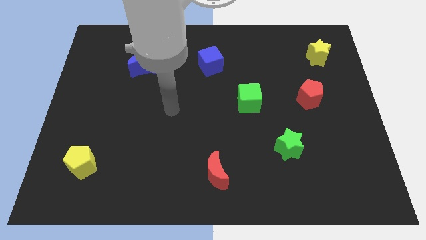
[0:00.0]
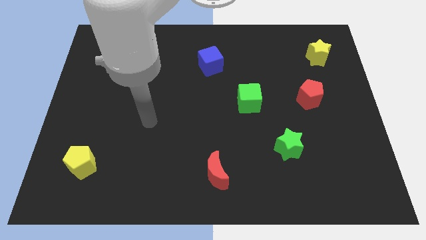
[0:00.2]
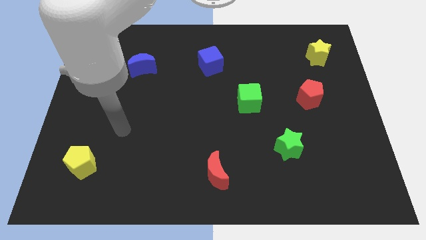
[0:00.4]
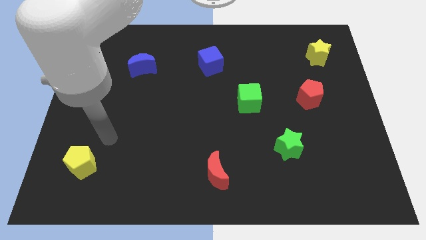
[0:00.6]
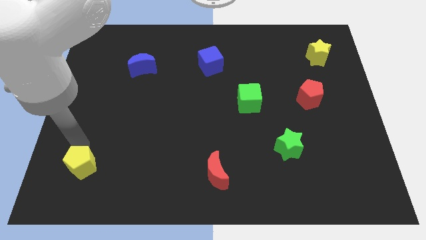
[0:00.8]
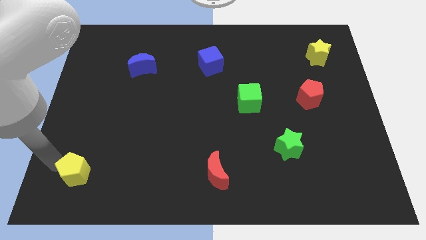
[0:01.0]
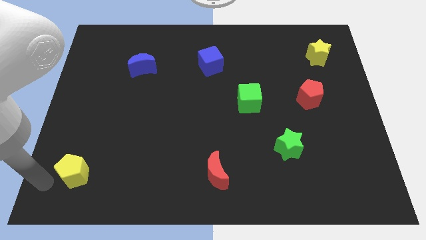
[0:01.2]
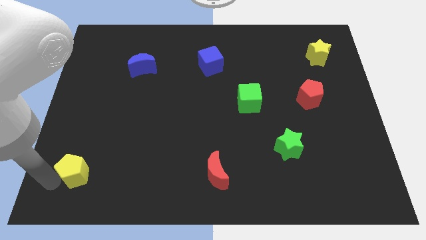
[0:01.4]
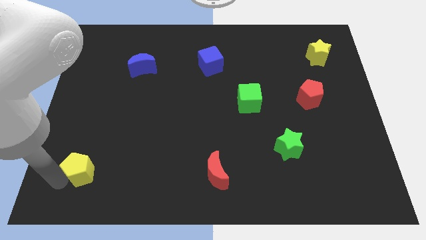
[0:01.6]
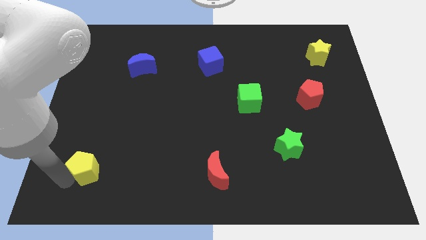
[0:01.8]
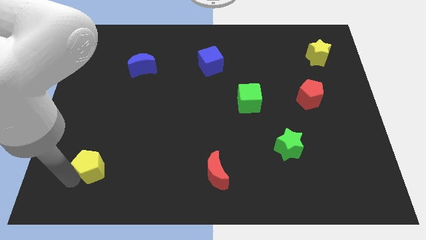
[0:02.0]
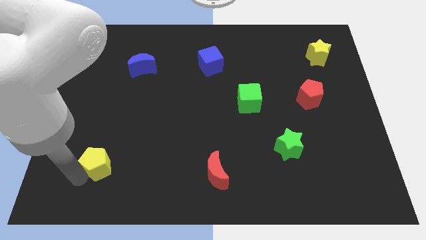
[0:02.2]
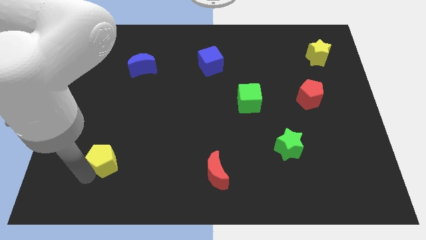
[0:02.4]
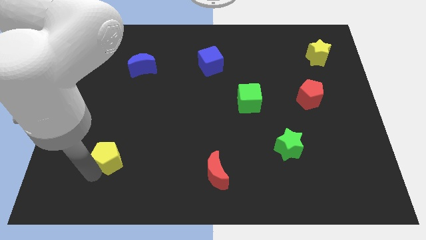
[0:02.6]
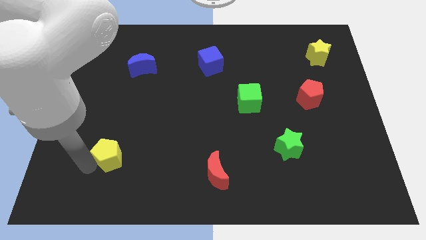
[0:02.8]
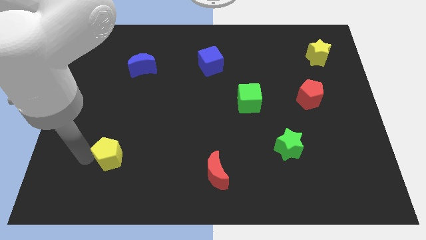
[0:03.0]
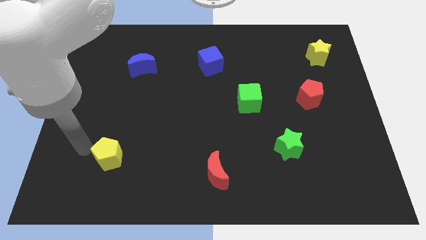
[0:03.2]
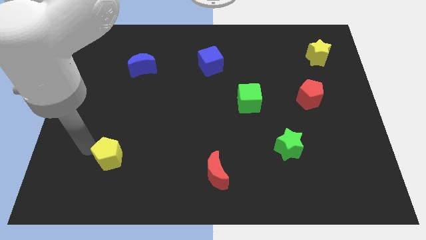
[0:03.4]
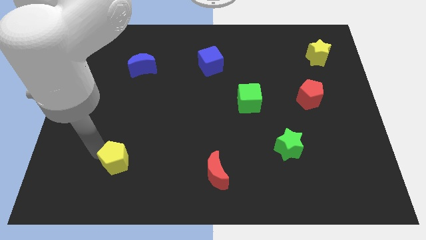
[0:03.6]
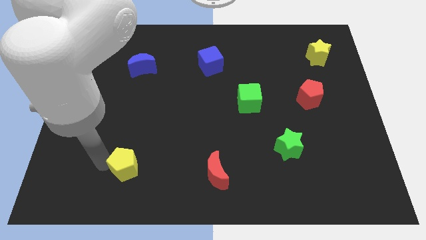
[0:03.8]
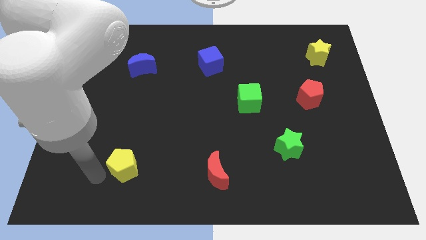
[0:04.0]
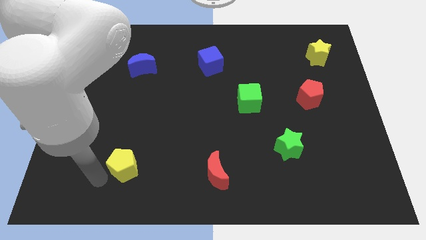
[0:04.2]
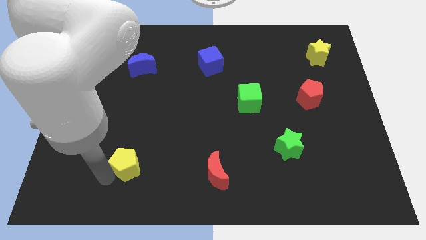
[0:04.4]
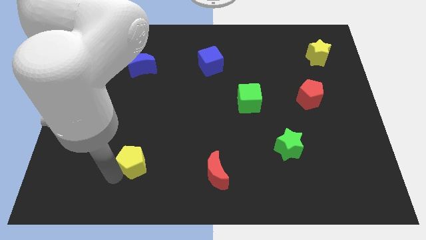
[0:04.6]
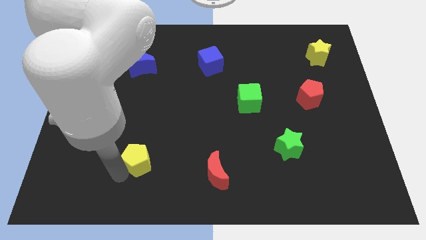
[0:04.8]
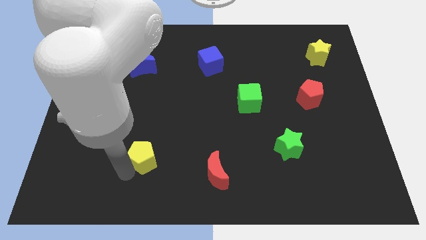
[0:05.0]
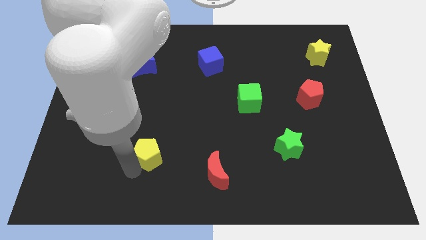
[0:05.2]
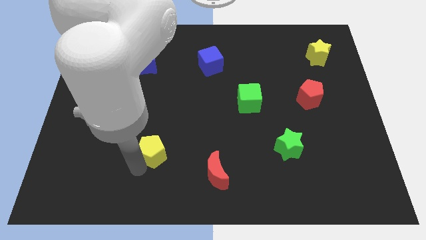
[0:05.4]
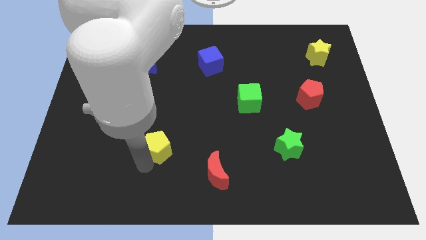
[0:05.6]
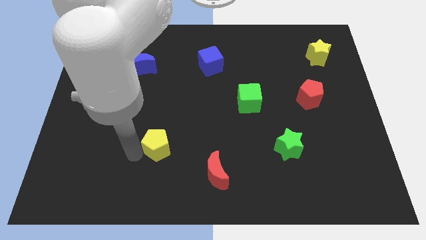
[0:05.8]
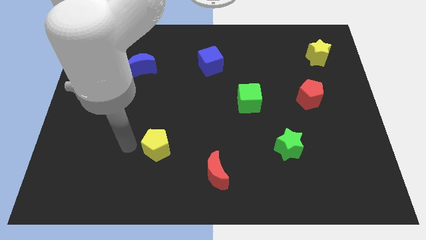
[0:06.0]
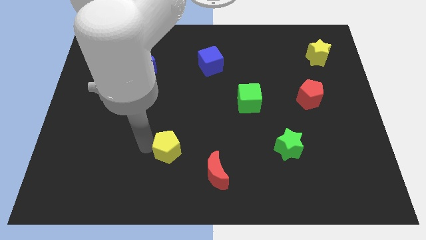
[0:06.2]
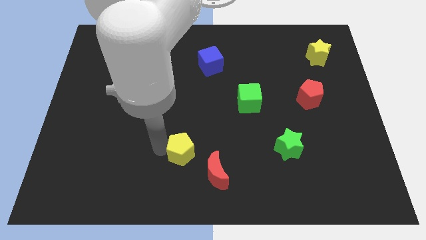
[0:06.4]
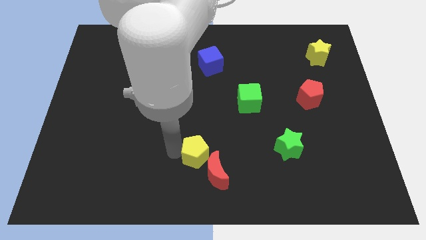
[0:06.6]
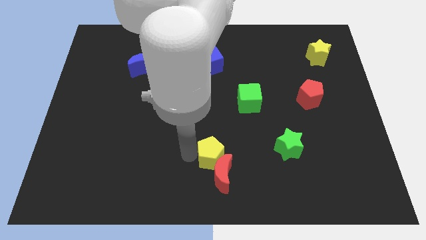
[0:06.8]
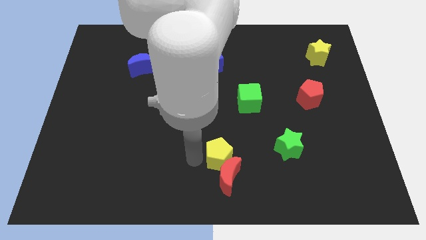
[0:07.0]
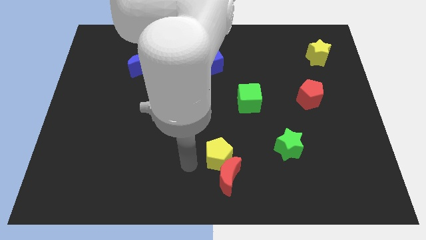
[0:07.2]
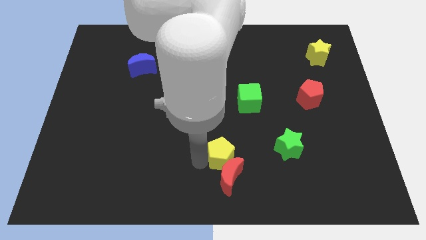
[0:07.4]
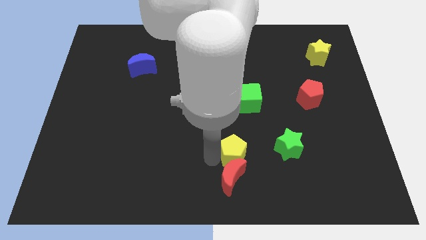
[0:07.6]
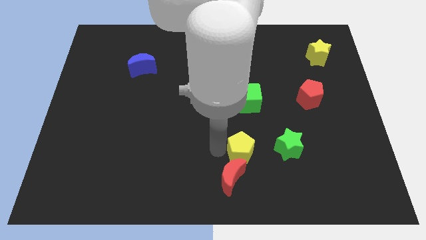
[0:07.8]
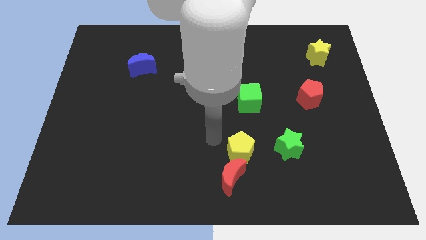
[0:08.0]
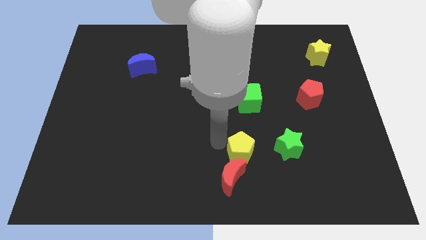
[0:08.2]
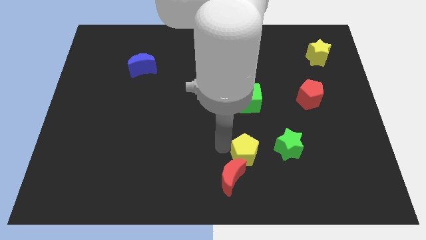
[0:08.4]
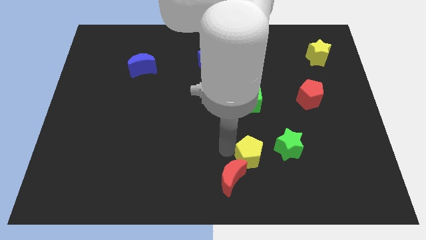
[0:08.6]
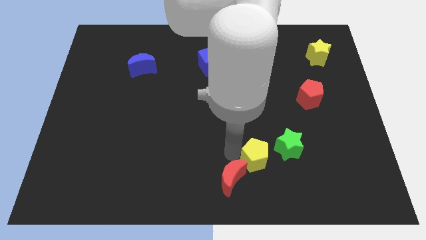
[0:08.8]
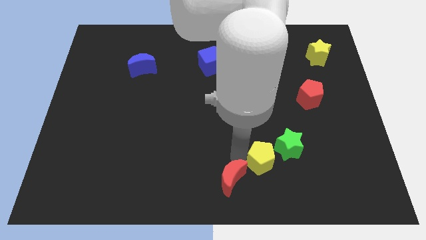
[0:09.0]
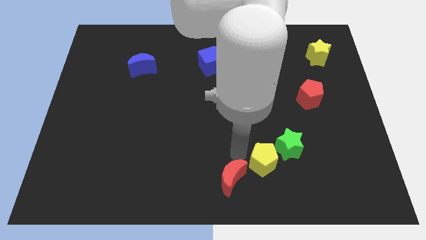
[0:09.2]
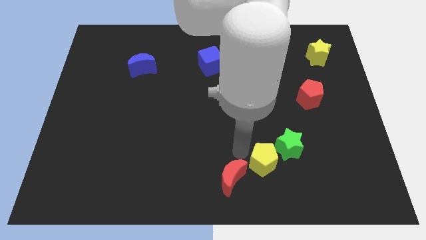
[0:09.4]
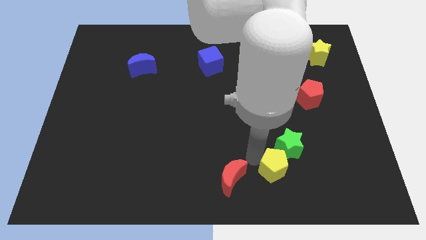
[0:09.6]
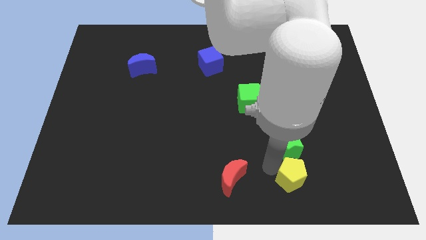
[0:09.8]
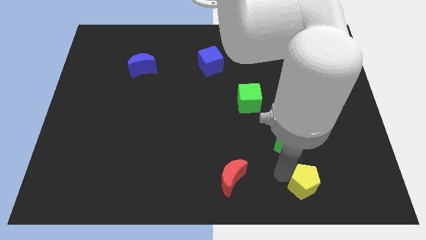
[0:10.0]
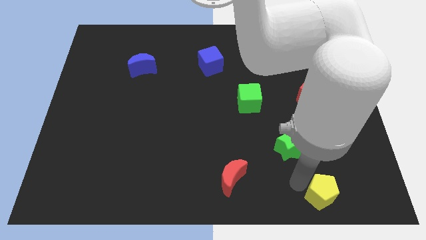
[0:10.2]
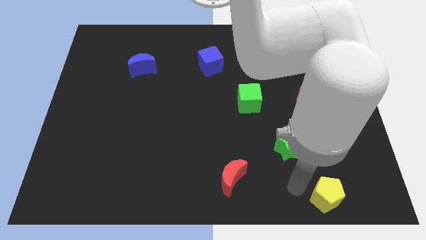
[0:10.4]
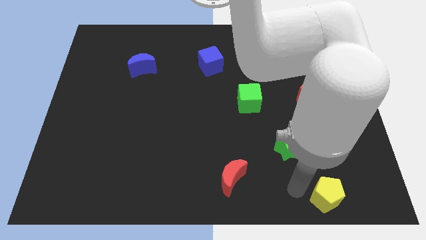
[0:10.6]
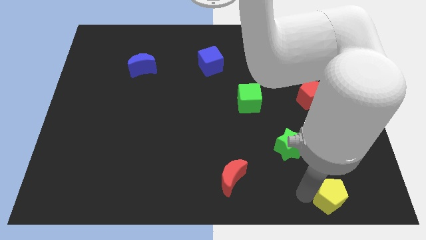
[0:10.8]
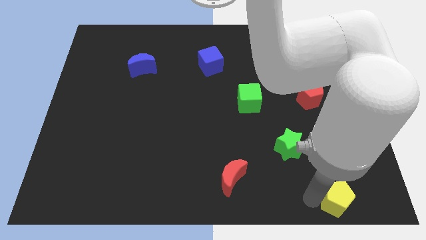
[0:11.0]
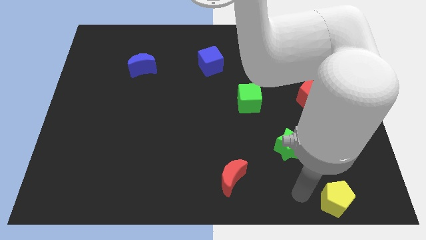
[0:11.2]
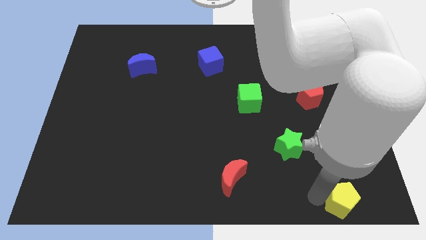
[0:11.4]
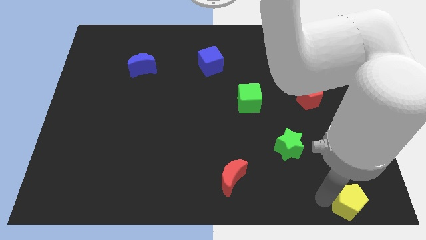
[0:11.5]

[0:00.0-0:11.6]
push the yellow pentagon to the bottom right
